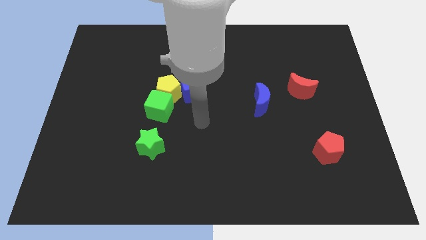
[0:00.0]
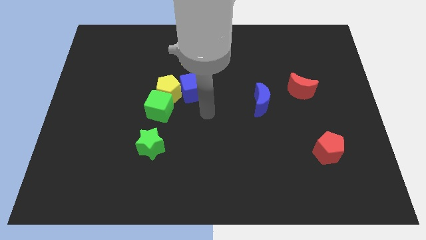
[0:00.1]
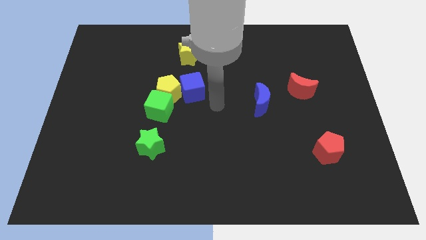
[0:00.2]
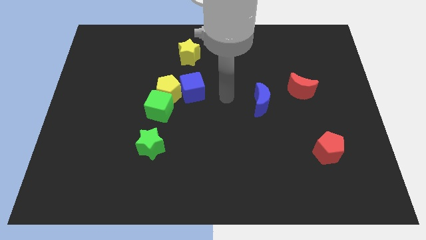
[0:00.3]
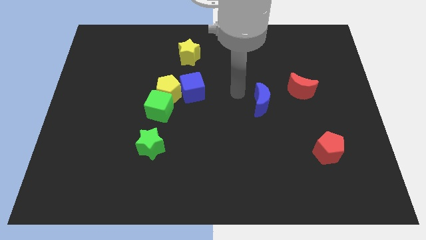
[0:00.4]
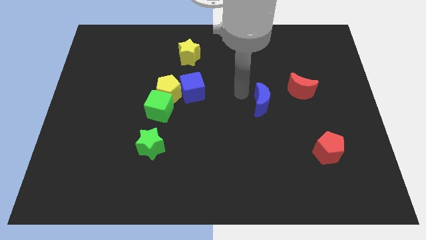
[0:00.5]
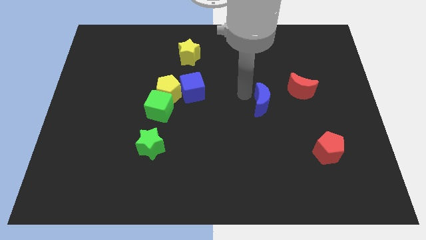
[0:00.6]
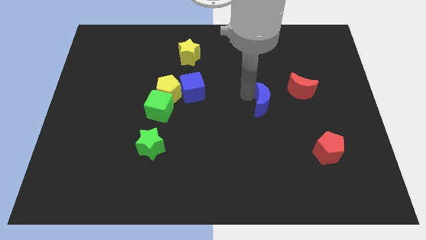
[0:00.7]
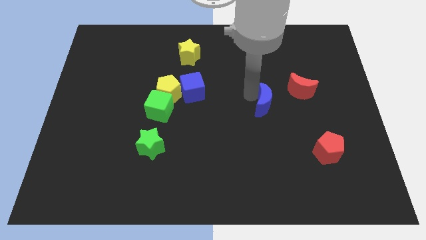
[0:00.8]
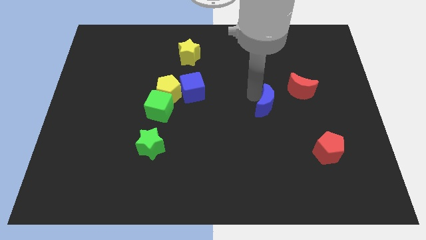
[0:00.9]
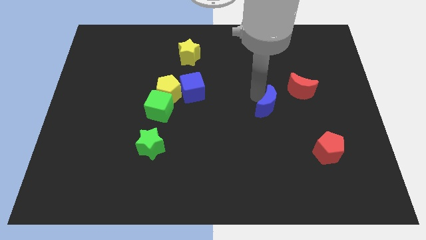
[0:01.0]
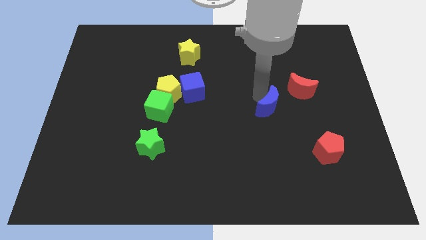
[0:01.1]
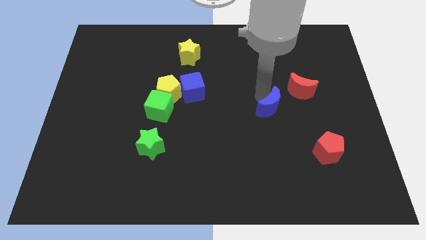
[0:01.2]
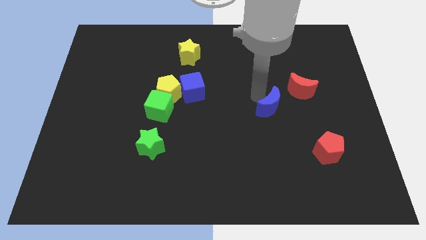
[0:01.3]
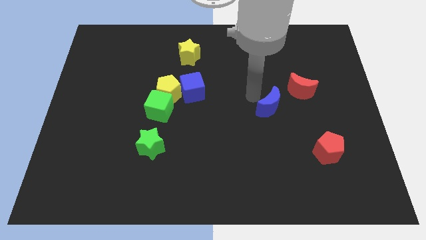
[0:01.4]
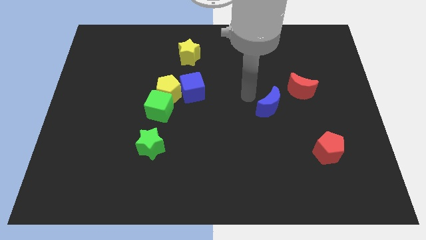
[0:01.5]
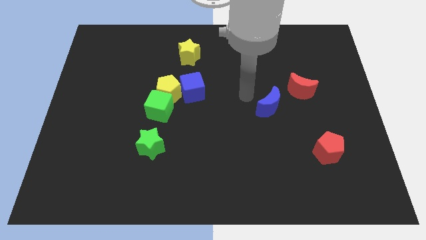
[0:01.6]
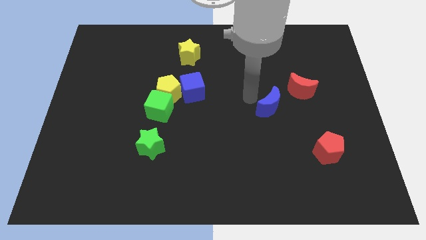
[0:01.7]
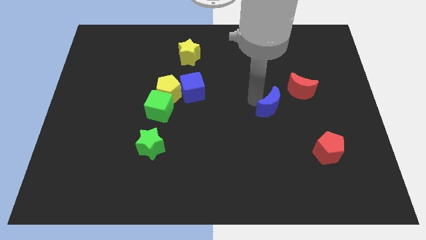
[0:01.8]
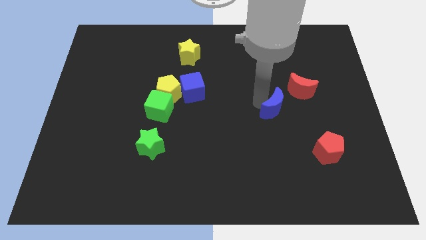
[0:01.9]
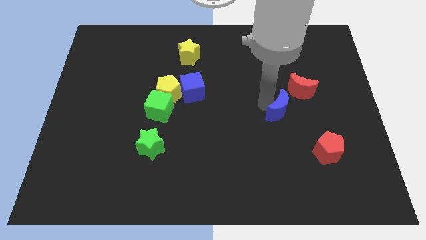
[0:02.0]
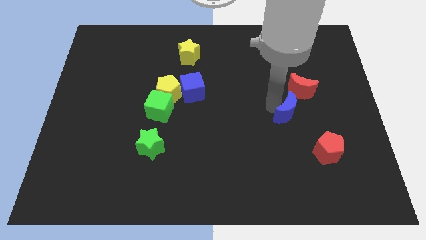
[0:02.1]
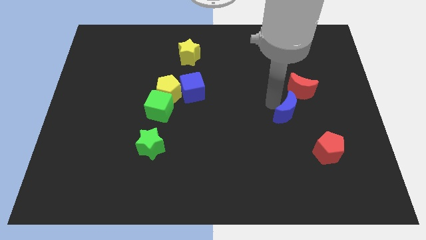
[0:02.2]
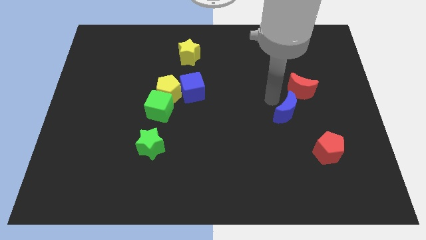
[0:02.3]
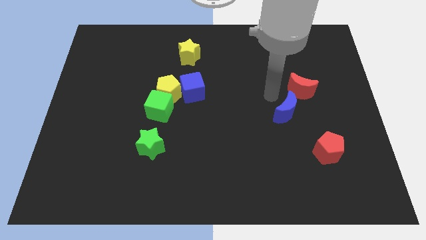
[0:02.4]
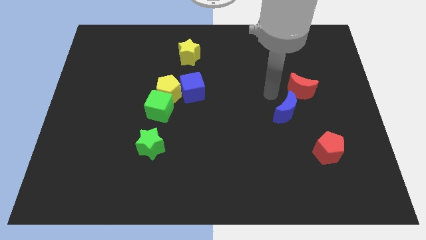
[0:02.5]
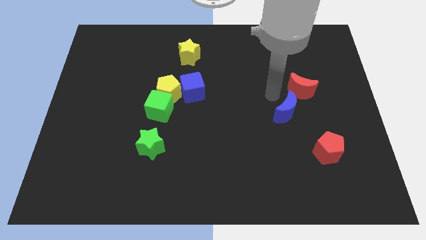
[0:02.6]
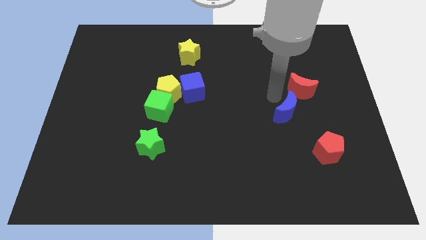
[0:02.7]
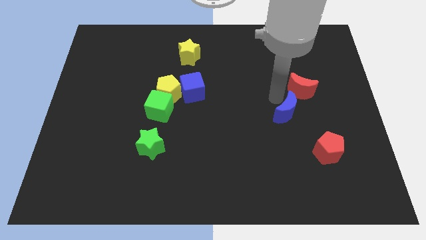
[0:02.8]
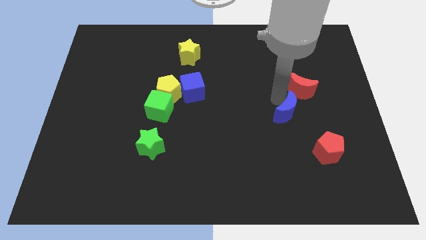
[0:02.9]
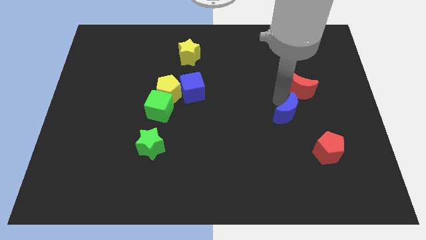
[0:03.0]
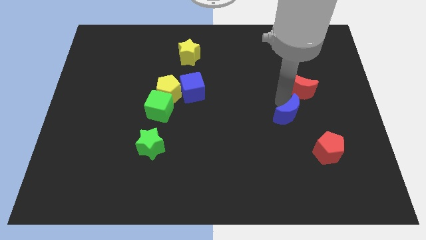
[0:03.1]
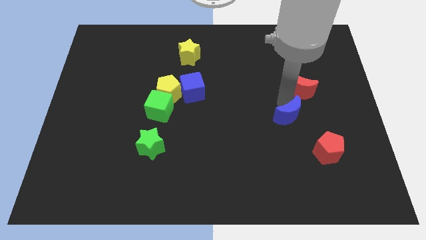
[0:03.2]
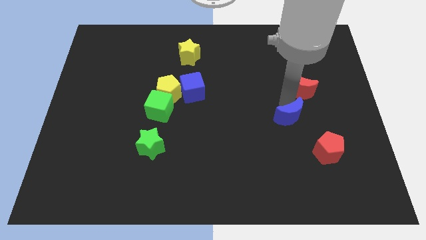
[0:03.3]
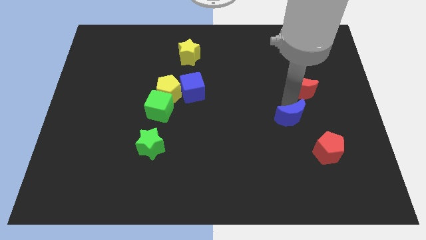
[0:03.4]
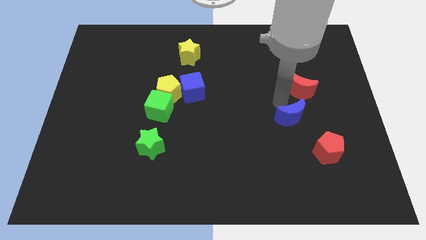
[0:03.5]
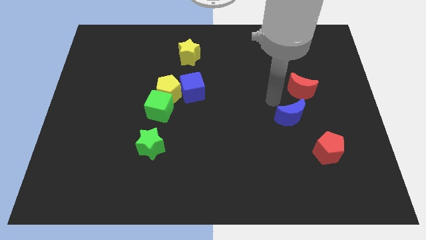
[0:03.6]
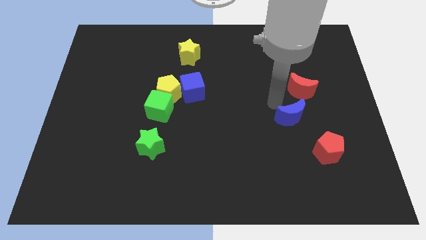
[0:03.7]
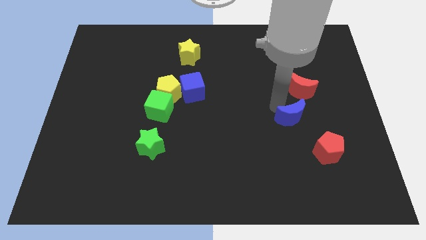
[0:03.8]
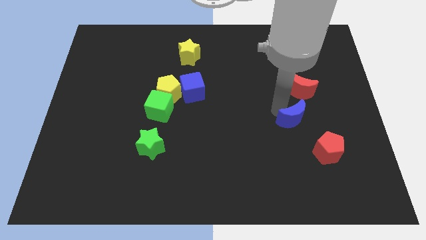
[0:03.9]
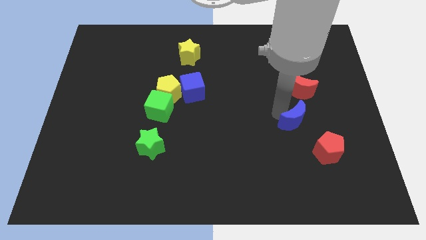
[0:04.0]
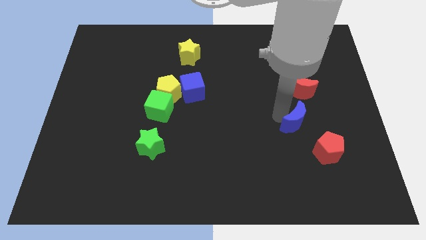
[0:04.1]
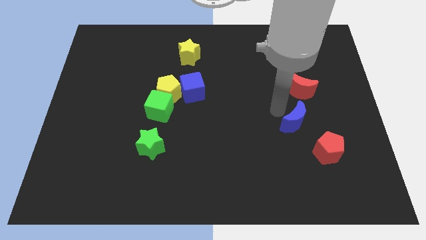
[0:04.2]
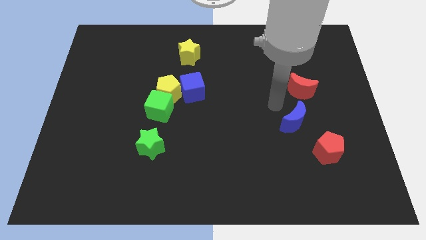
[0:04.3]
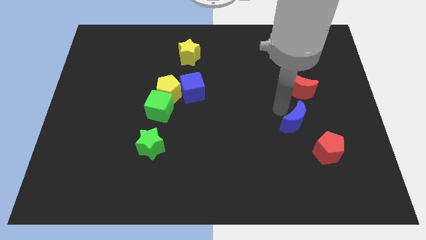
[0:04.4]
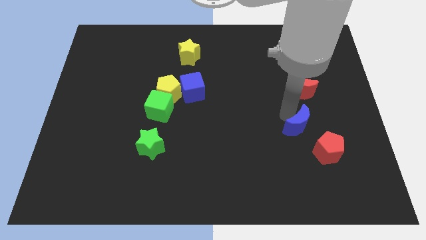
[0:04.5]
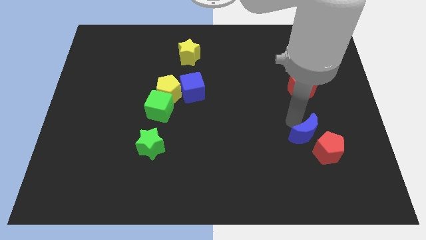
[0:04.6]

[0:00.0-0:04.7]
slide the blue moon to the red pentagon

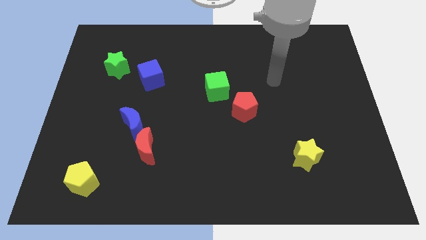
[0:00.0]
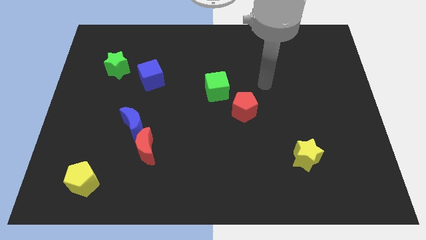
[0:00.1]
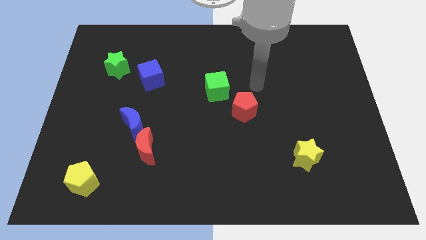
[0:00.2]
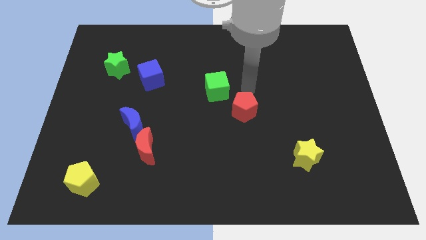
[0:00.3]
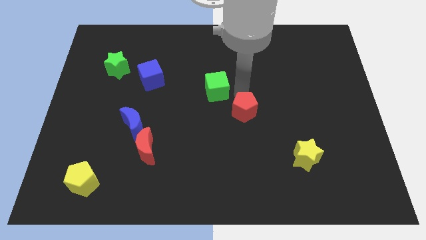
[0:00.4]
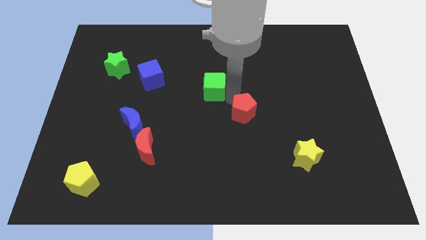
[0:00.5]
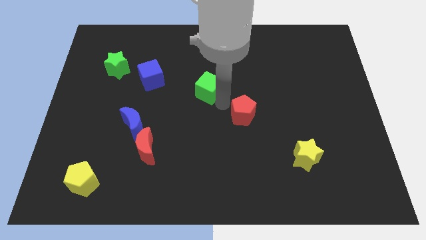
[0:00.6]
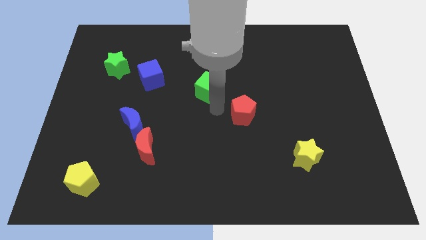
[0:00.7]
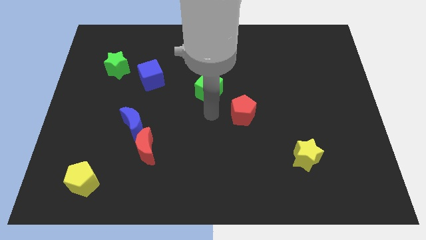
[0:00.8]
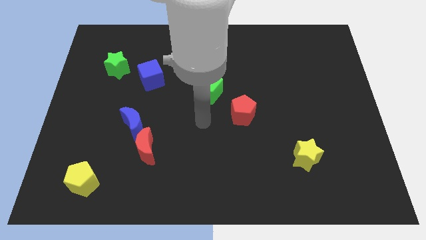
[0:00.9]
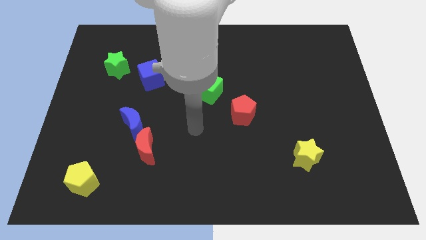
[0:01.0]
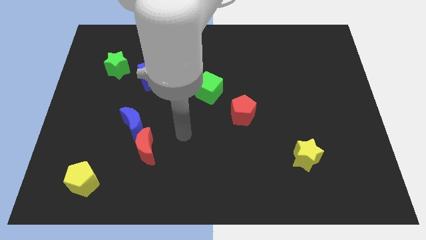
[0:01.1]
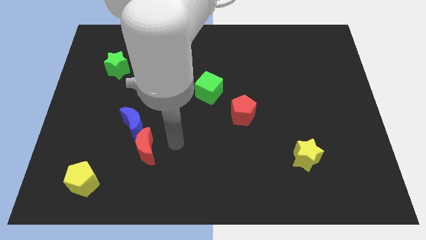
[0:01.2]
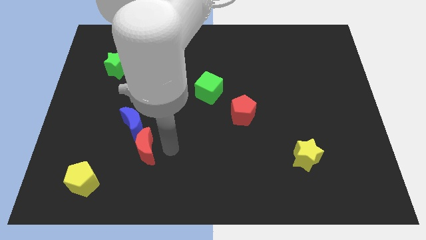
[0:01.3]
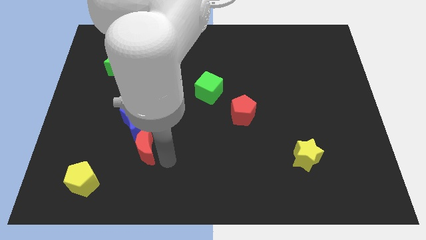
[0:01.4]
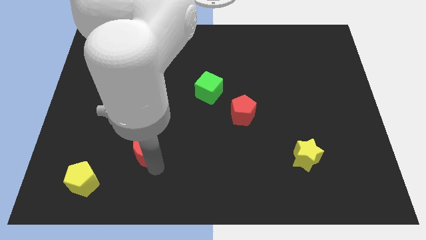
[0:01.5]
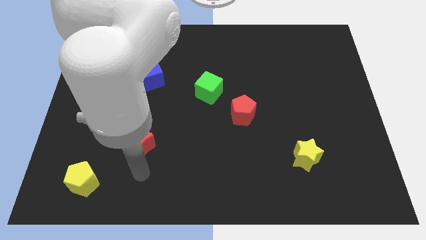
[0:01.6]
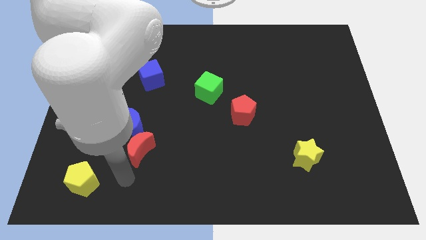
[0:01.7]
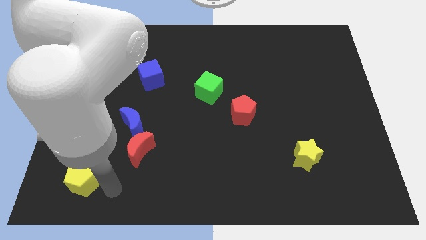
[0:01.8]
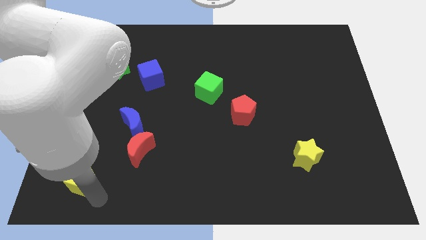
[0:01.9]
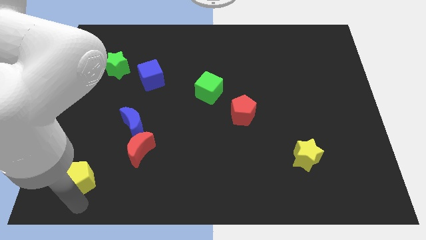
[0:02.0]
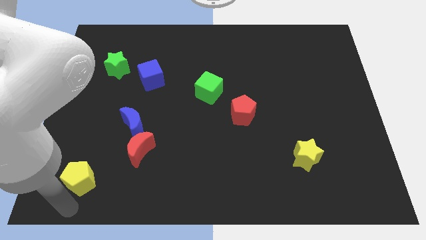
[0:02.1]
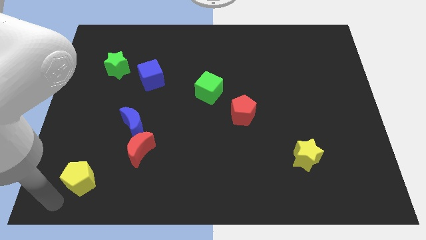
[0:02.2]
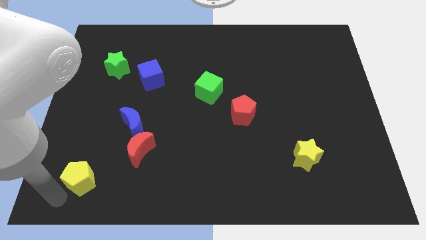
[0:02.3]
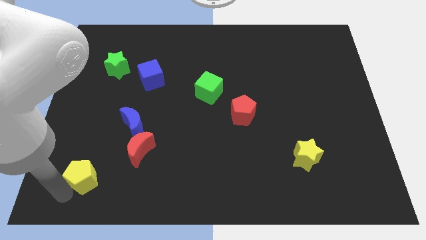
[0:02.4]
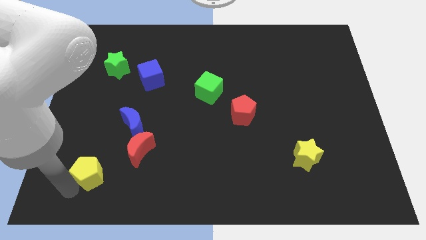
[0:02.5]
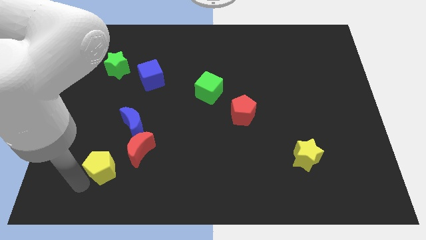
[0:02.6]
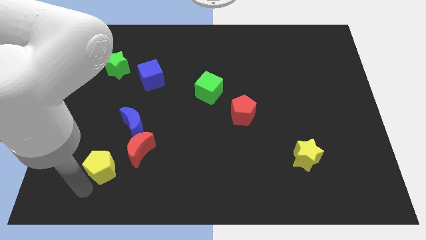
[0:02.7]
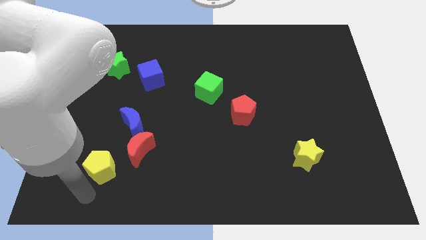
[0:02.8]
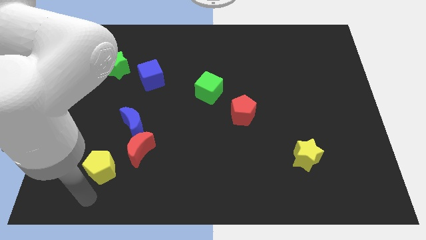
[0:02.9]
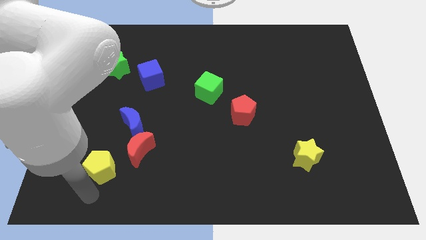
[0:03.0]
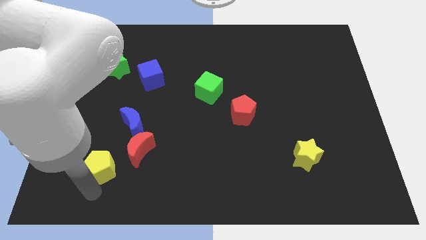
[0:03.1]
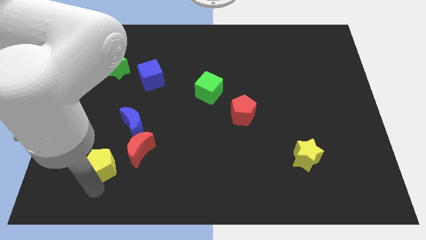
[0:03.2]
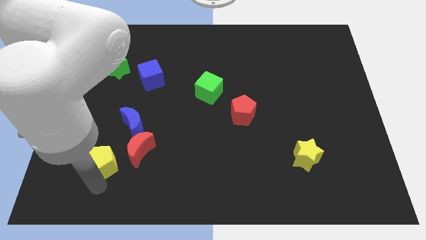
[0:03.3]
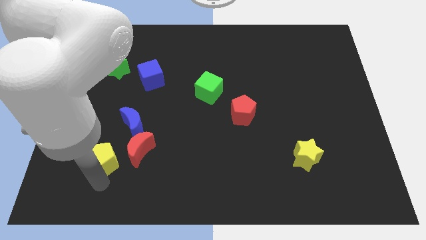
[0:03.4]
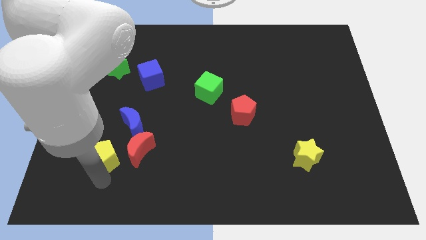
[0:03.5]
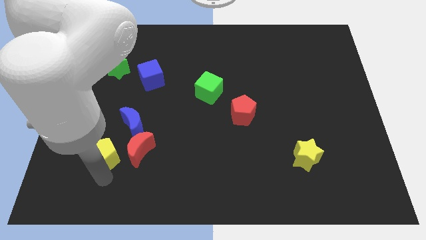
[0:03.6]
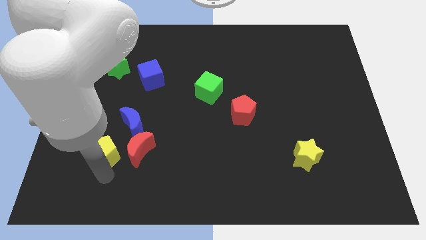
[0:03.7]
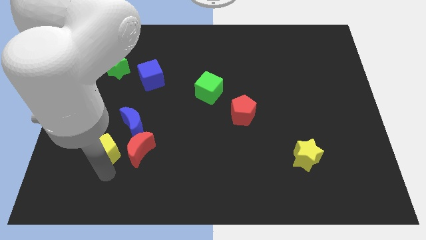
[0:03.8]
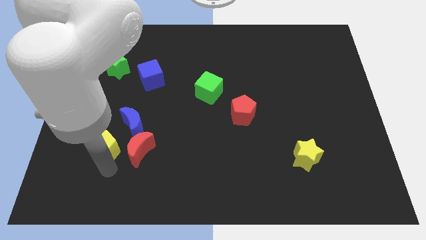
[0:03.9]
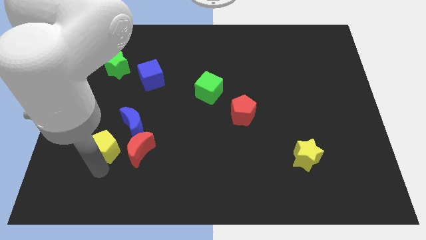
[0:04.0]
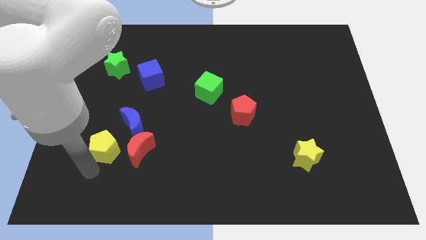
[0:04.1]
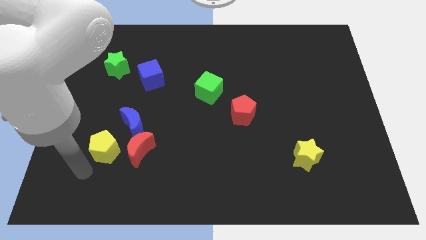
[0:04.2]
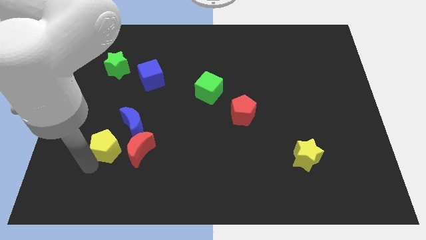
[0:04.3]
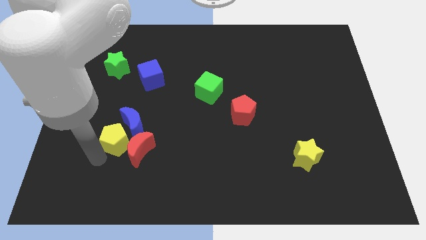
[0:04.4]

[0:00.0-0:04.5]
slide the yellow pentagon towards the blue moon
